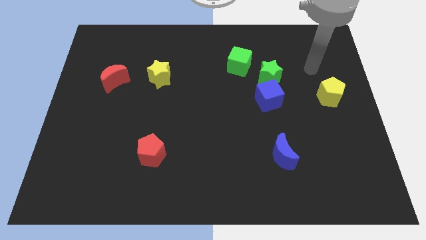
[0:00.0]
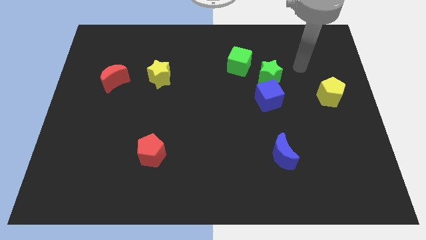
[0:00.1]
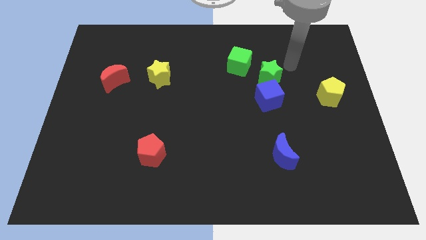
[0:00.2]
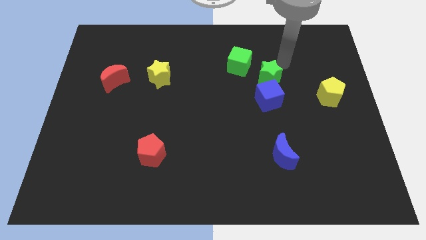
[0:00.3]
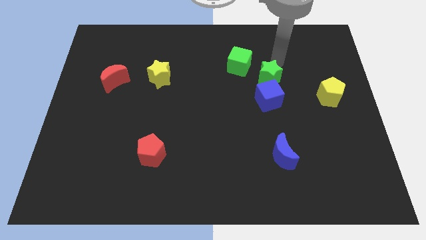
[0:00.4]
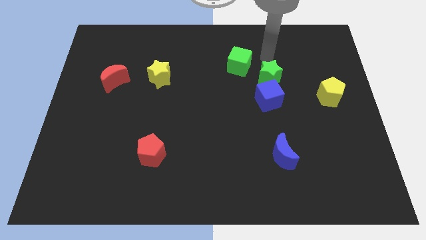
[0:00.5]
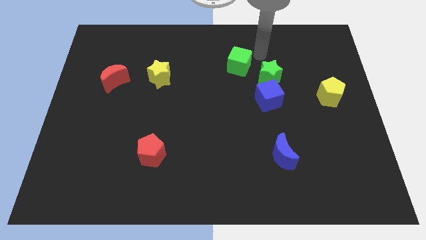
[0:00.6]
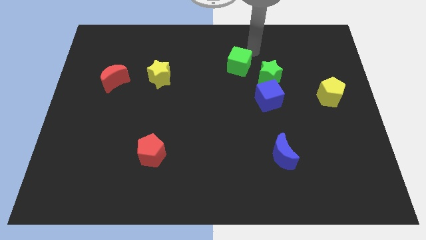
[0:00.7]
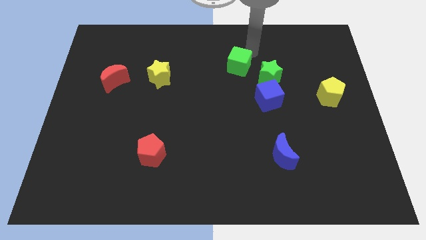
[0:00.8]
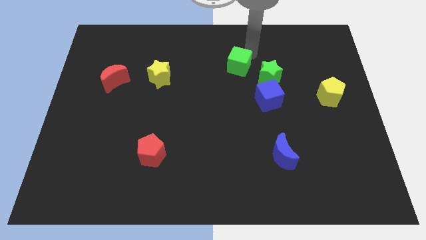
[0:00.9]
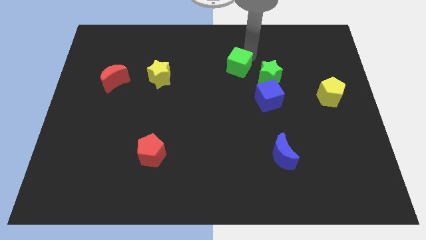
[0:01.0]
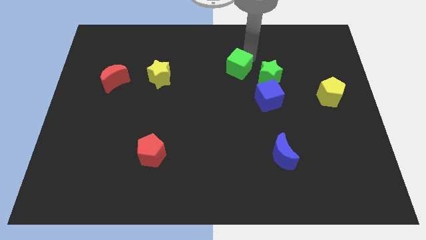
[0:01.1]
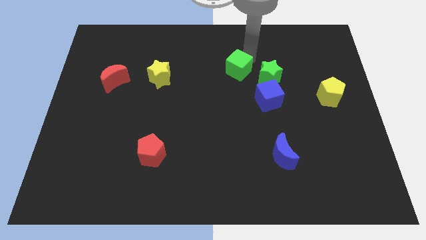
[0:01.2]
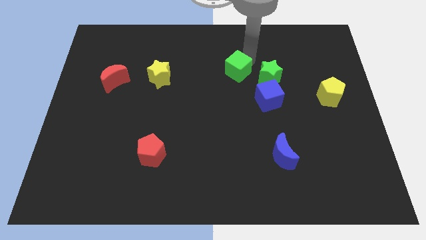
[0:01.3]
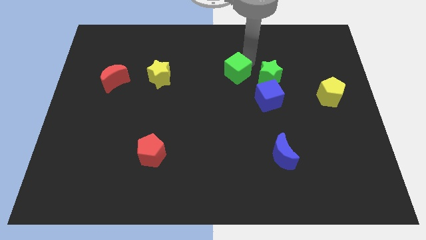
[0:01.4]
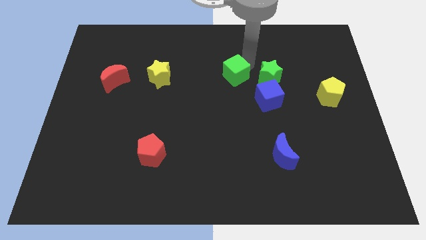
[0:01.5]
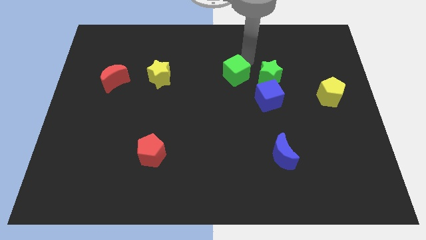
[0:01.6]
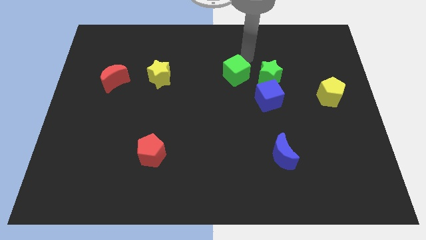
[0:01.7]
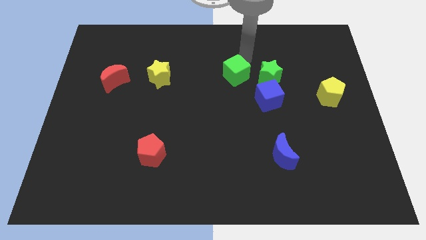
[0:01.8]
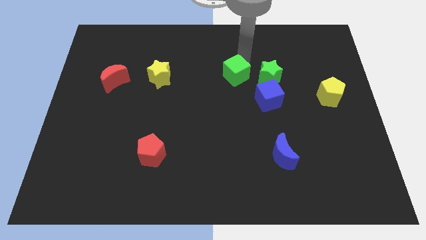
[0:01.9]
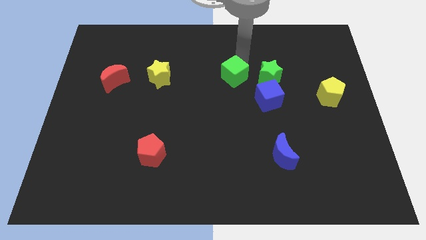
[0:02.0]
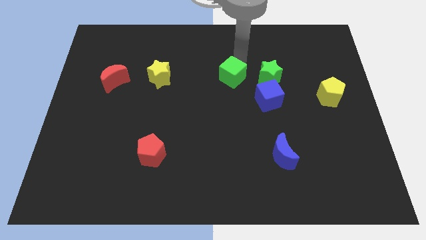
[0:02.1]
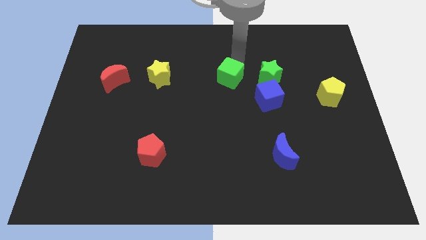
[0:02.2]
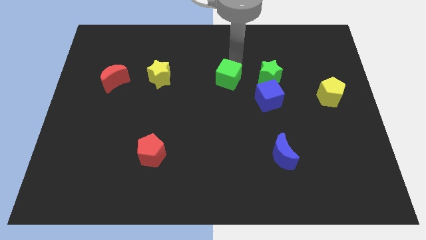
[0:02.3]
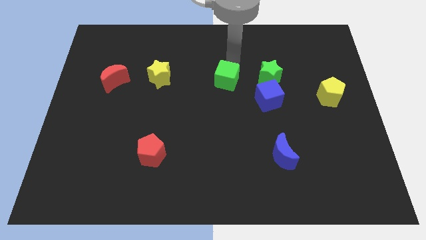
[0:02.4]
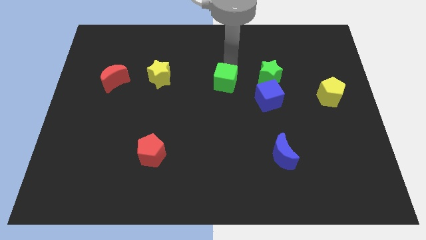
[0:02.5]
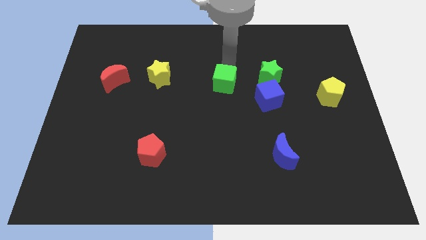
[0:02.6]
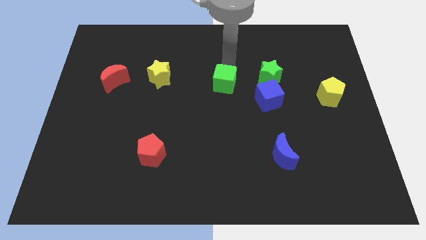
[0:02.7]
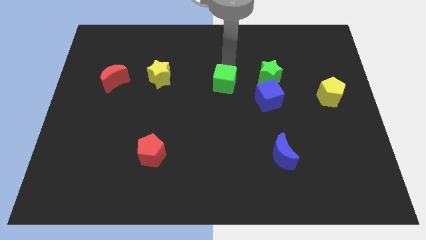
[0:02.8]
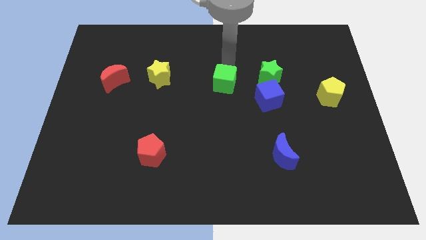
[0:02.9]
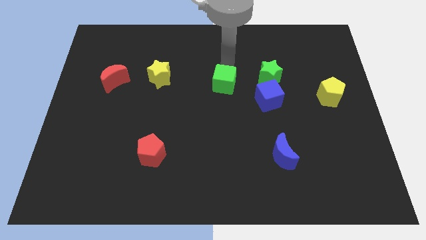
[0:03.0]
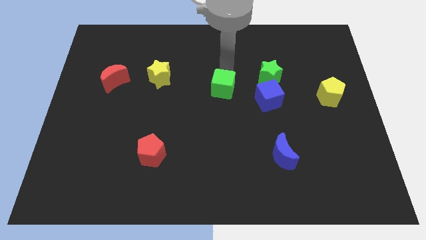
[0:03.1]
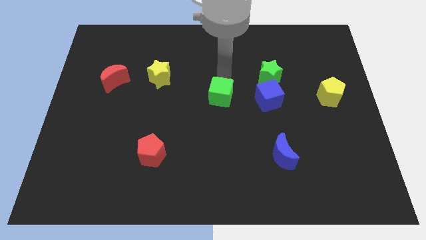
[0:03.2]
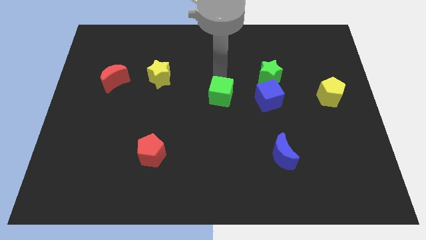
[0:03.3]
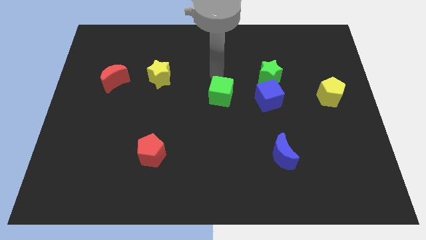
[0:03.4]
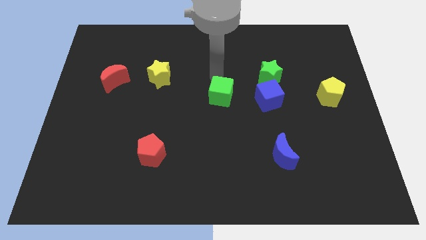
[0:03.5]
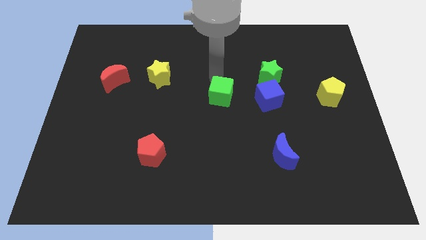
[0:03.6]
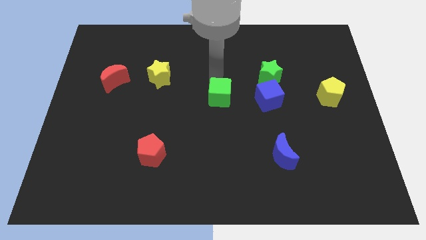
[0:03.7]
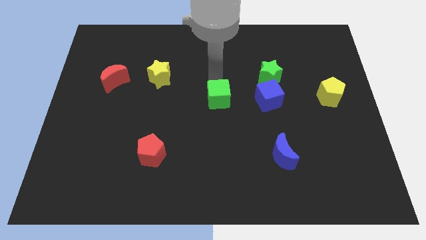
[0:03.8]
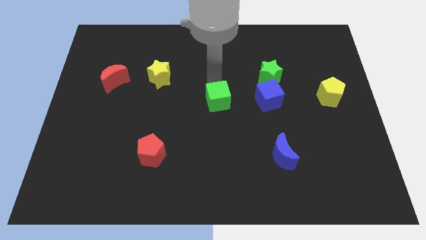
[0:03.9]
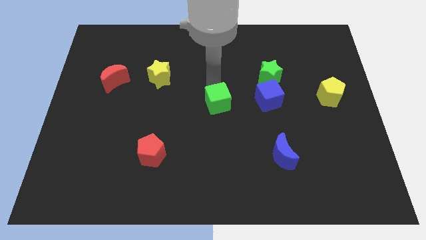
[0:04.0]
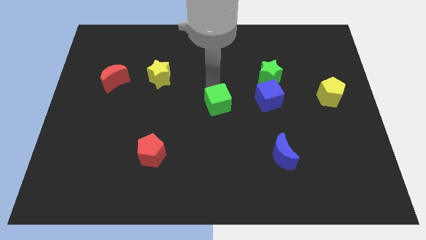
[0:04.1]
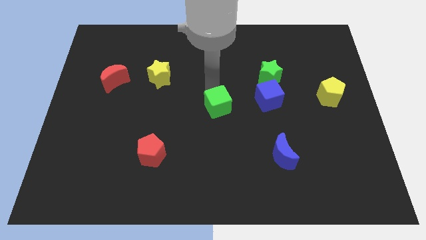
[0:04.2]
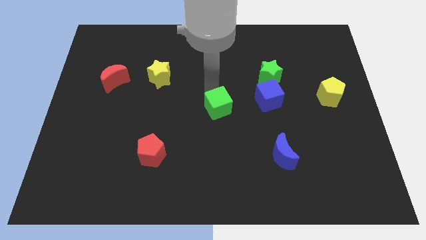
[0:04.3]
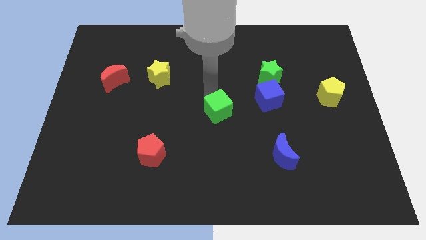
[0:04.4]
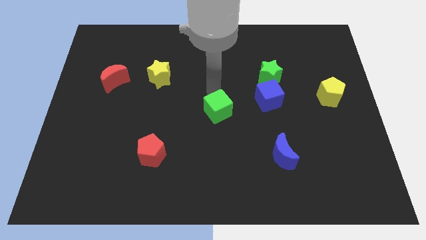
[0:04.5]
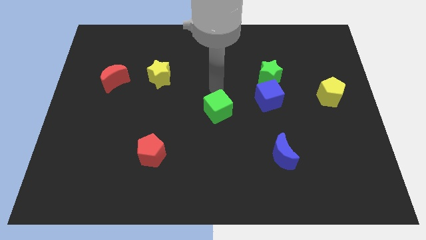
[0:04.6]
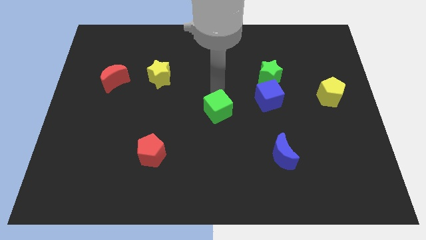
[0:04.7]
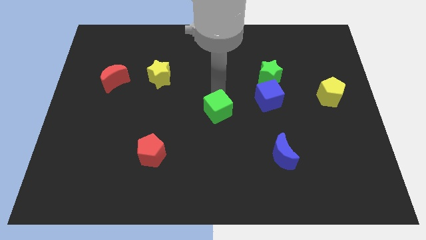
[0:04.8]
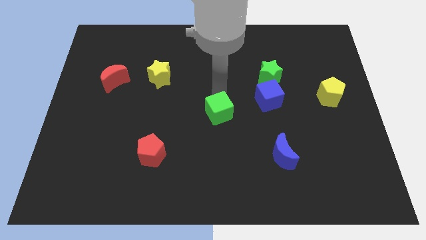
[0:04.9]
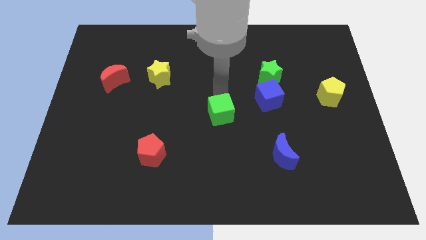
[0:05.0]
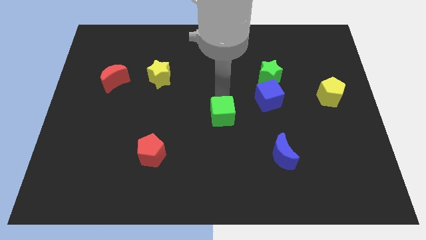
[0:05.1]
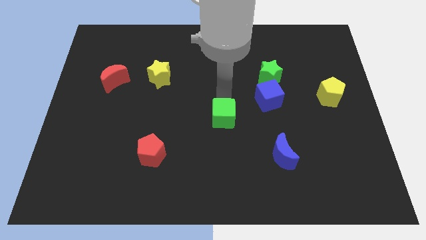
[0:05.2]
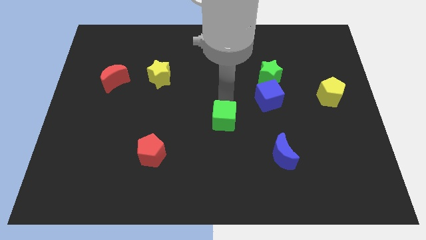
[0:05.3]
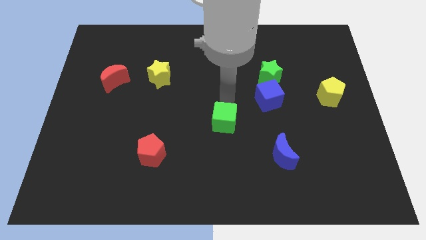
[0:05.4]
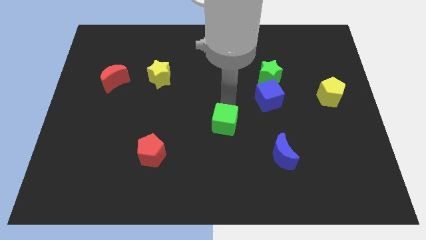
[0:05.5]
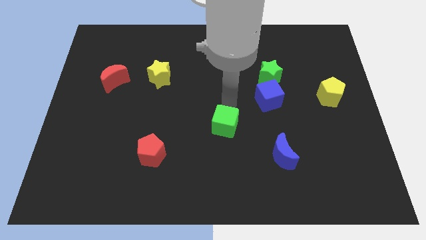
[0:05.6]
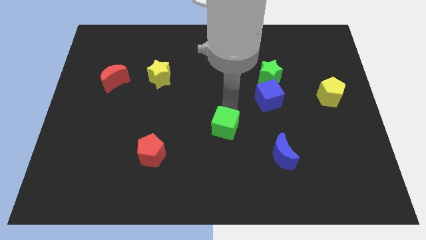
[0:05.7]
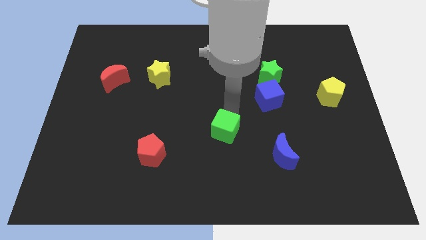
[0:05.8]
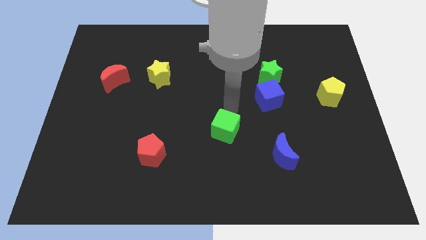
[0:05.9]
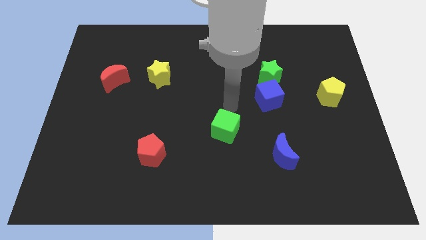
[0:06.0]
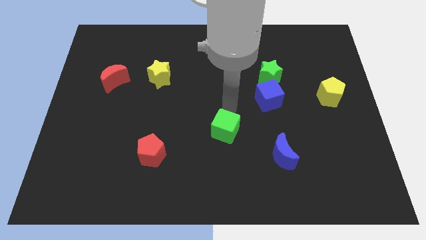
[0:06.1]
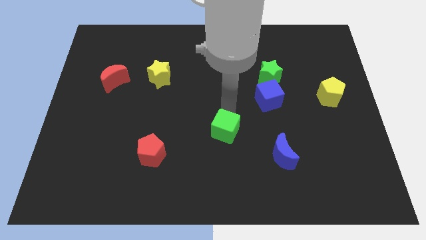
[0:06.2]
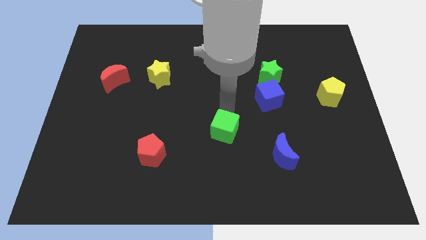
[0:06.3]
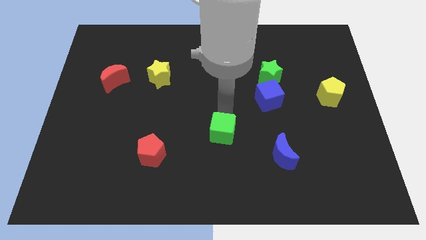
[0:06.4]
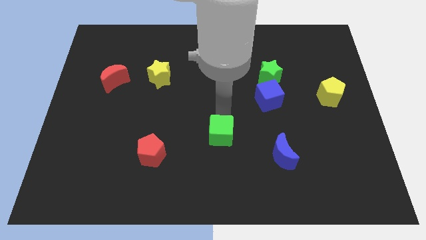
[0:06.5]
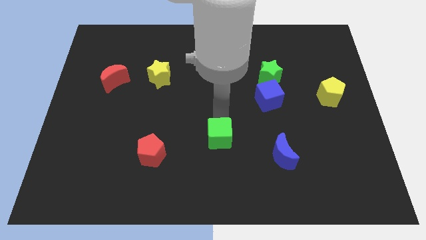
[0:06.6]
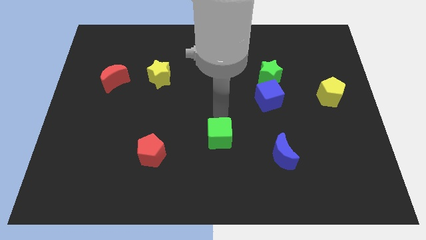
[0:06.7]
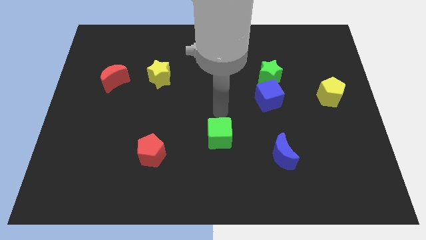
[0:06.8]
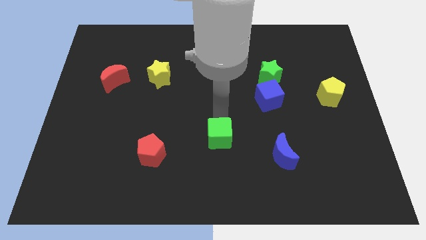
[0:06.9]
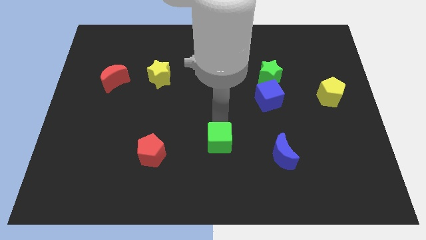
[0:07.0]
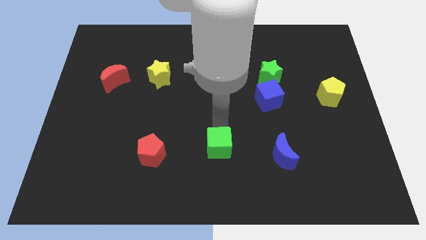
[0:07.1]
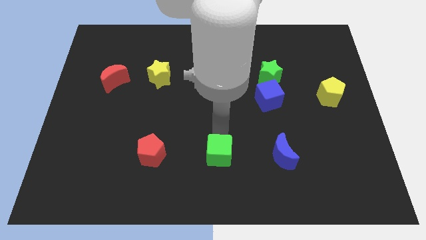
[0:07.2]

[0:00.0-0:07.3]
put the green cube to the bottom side
